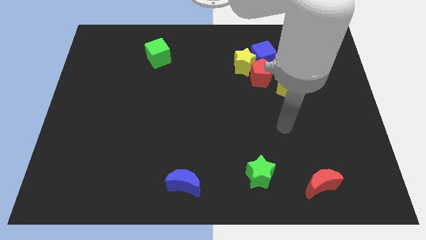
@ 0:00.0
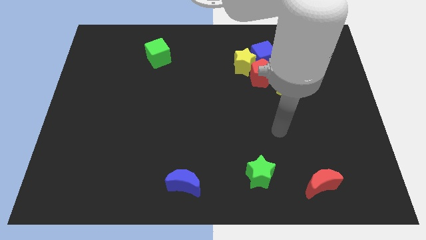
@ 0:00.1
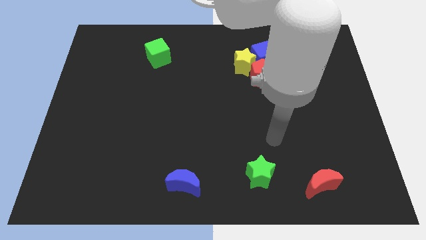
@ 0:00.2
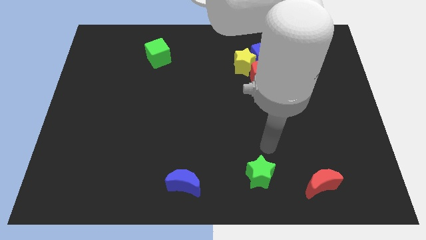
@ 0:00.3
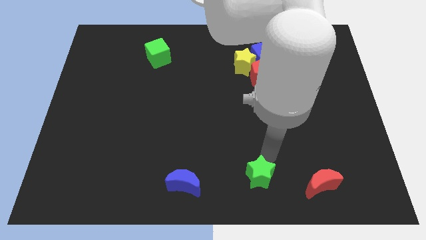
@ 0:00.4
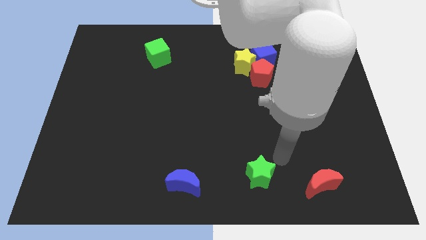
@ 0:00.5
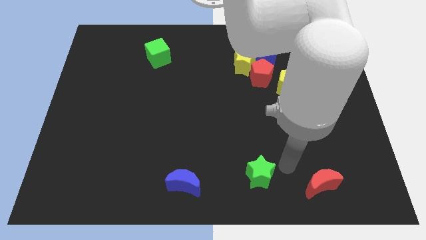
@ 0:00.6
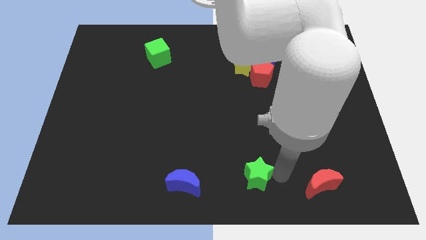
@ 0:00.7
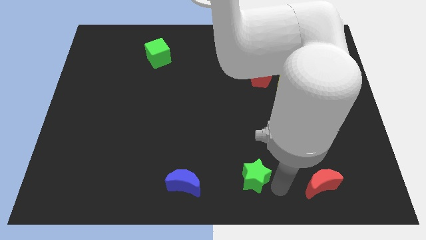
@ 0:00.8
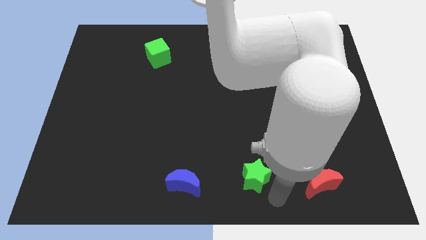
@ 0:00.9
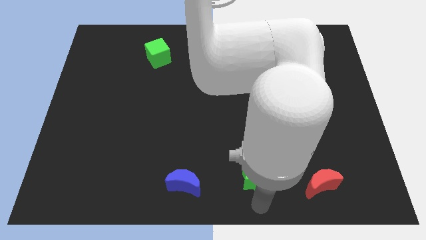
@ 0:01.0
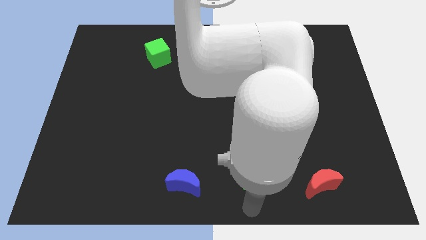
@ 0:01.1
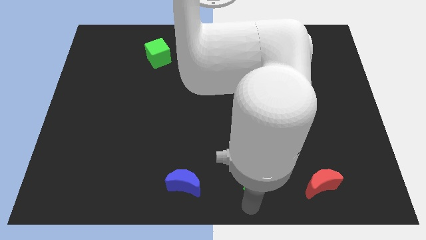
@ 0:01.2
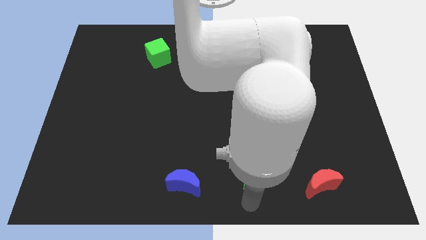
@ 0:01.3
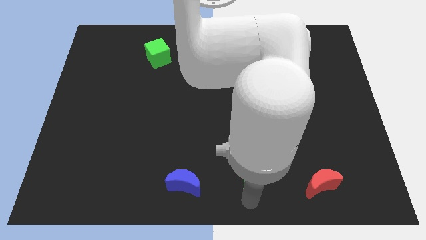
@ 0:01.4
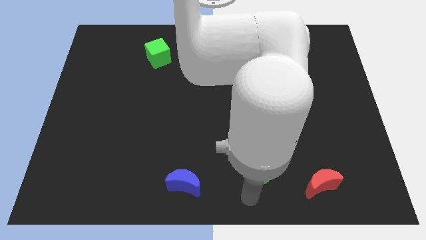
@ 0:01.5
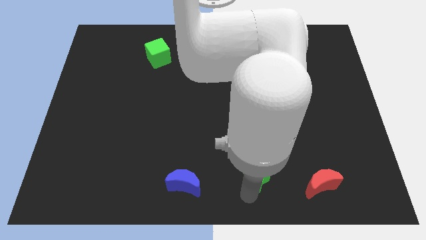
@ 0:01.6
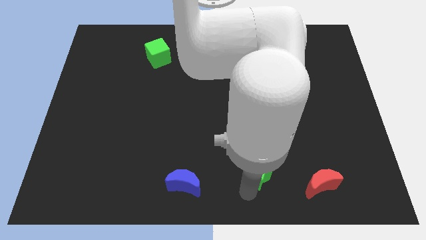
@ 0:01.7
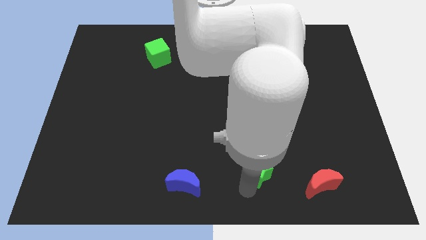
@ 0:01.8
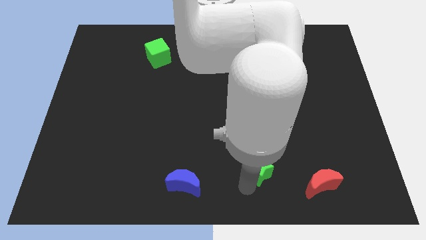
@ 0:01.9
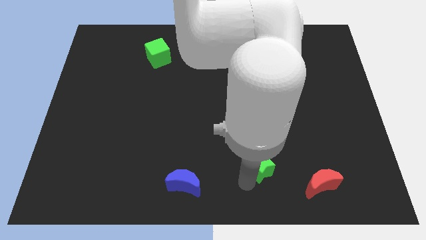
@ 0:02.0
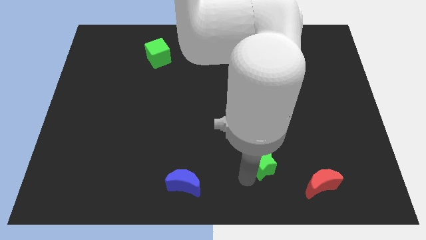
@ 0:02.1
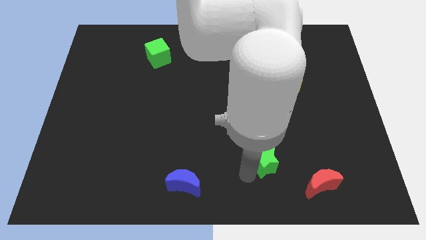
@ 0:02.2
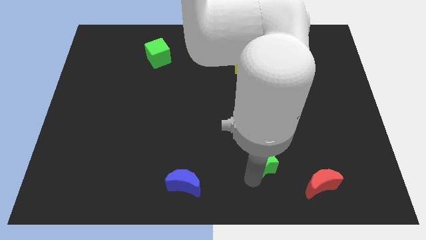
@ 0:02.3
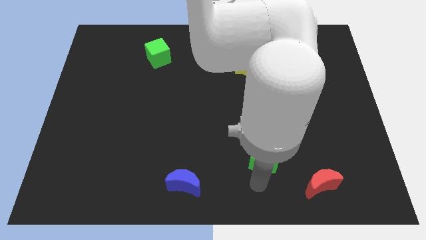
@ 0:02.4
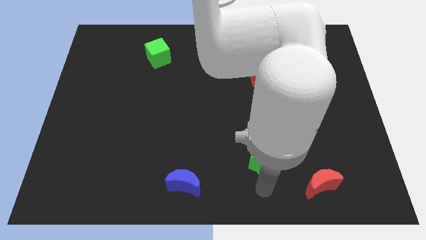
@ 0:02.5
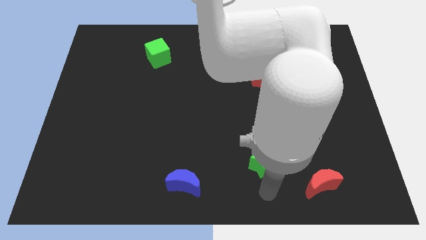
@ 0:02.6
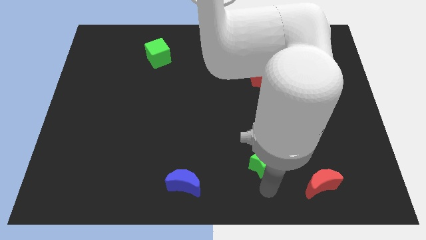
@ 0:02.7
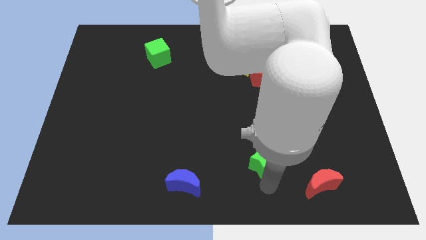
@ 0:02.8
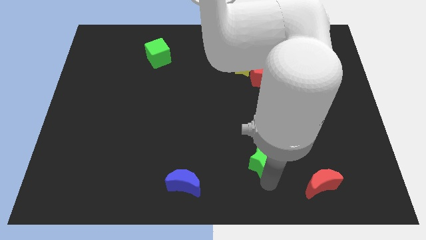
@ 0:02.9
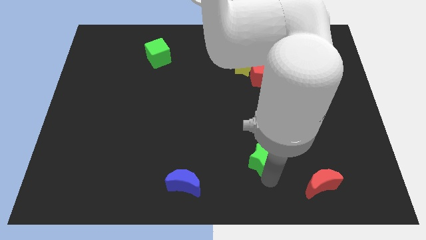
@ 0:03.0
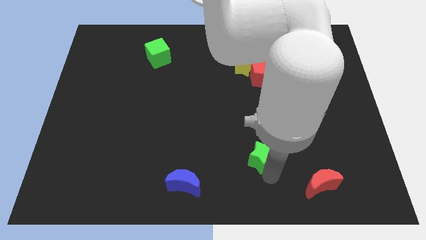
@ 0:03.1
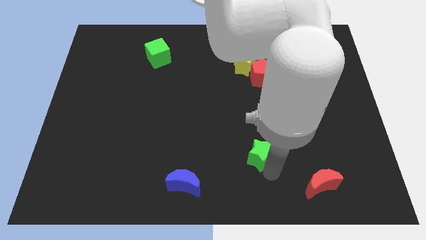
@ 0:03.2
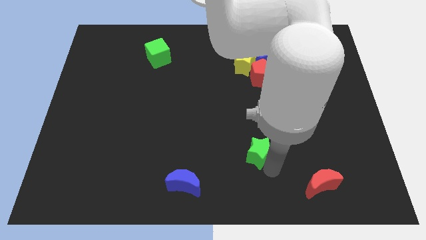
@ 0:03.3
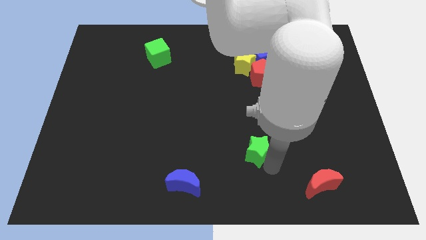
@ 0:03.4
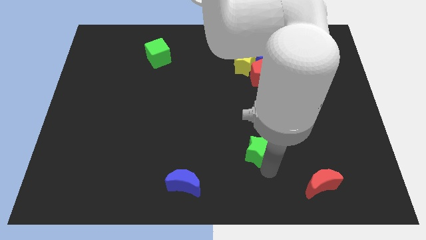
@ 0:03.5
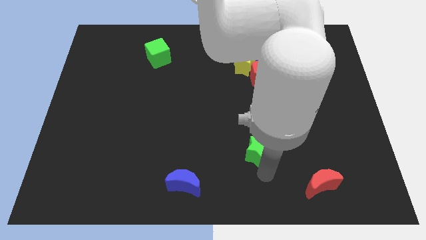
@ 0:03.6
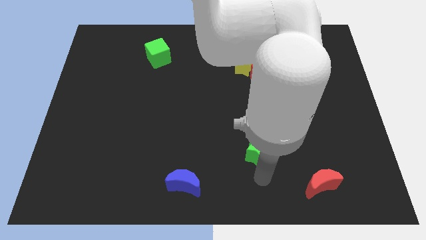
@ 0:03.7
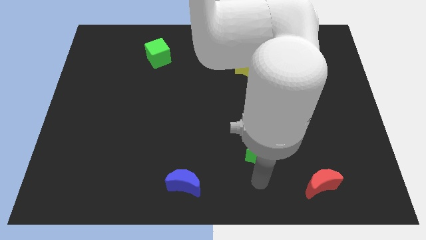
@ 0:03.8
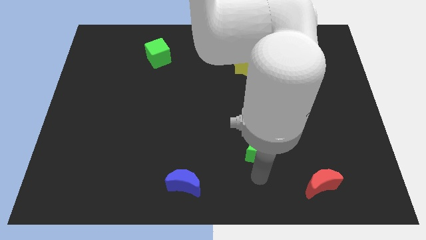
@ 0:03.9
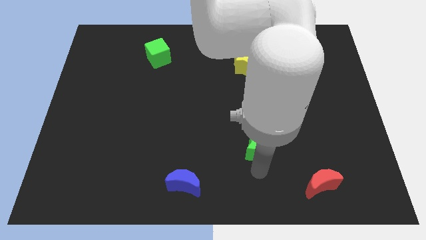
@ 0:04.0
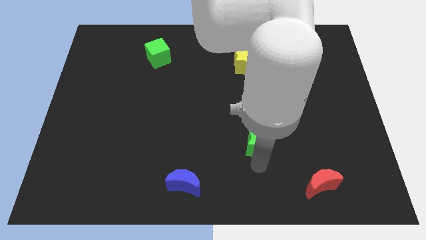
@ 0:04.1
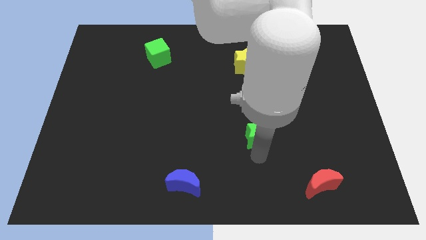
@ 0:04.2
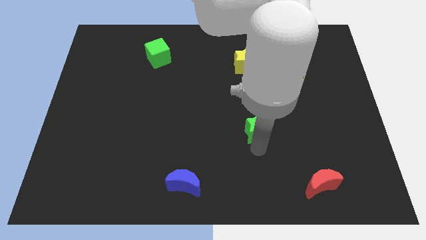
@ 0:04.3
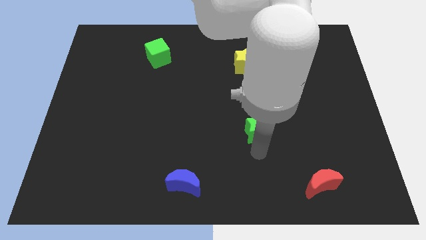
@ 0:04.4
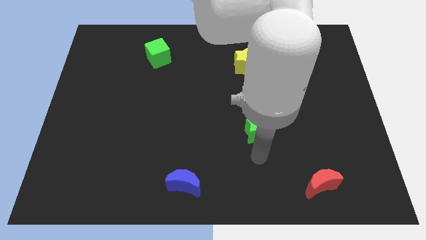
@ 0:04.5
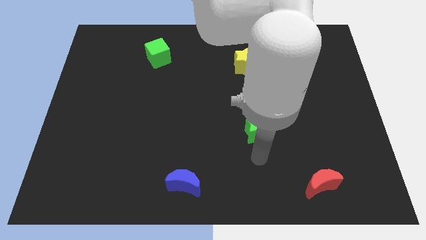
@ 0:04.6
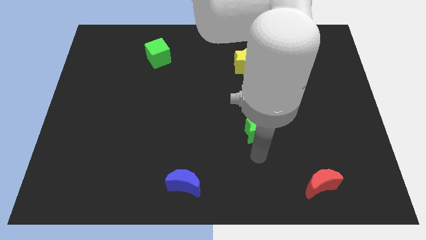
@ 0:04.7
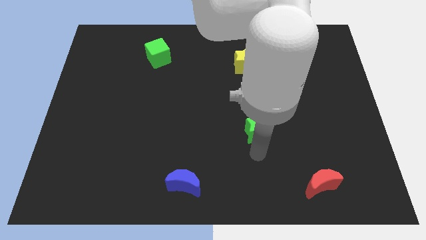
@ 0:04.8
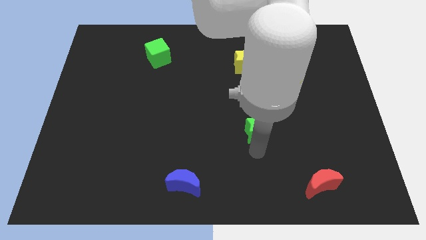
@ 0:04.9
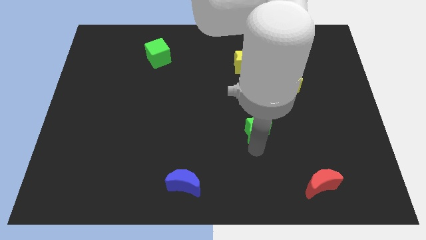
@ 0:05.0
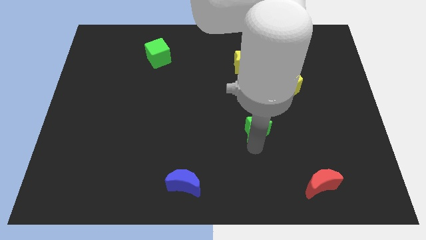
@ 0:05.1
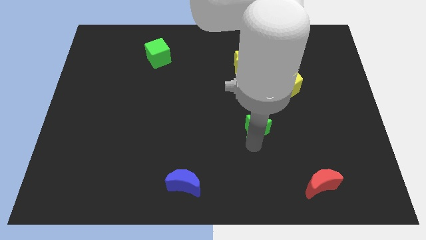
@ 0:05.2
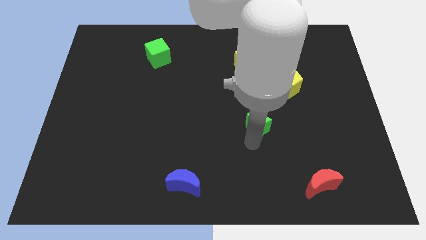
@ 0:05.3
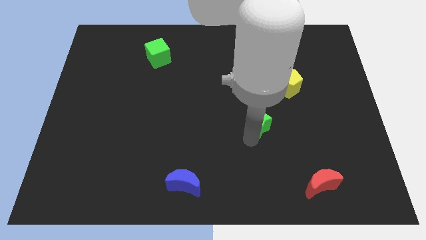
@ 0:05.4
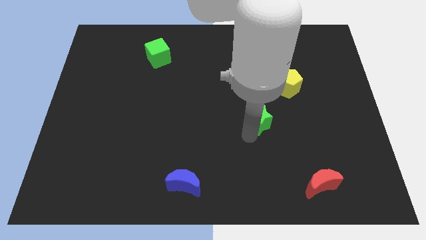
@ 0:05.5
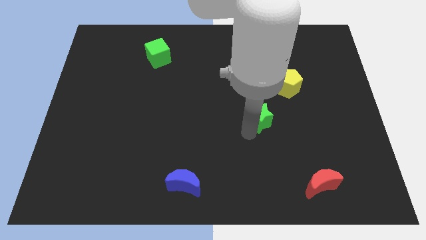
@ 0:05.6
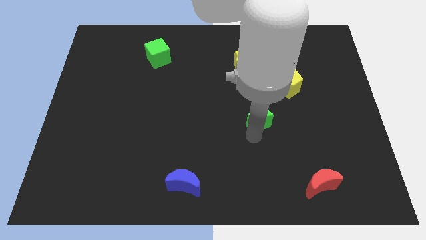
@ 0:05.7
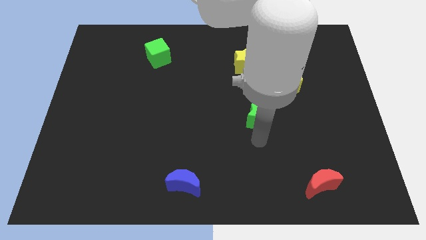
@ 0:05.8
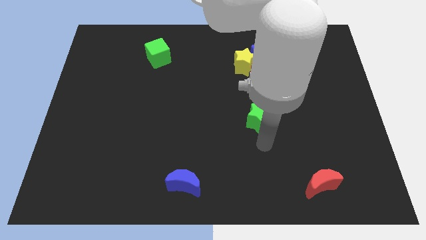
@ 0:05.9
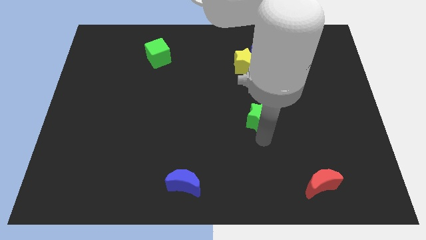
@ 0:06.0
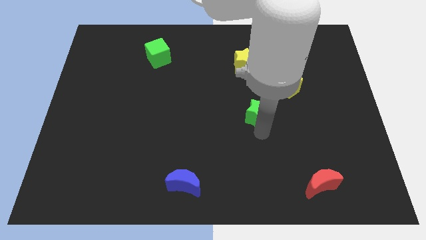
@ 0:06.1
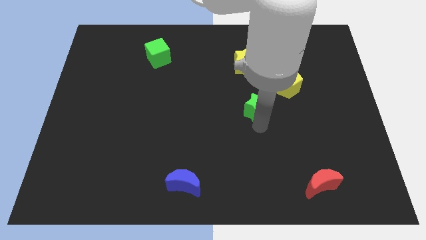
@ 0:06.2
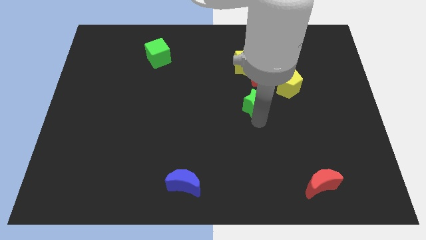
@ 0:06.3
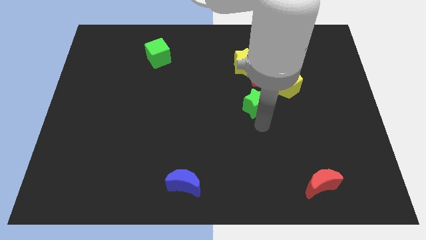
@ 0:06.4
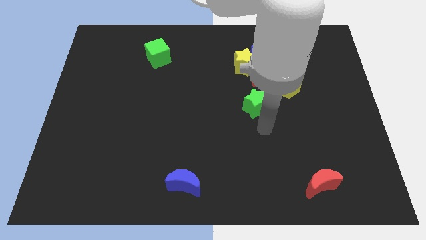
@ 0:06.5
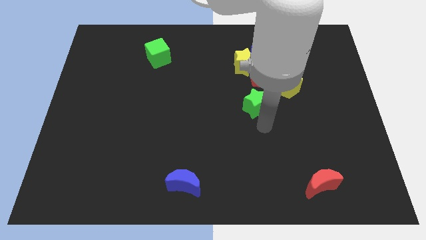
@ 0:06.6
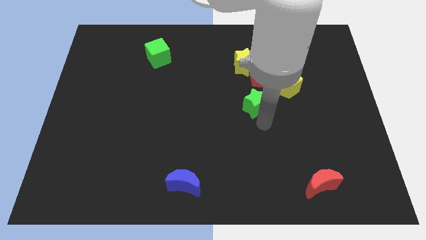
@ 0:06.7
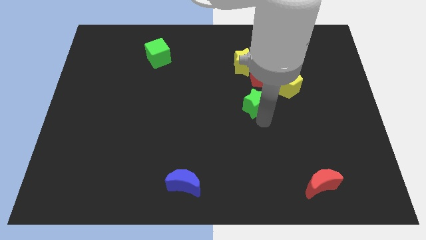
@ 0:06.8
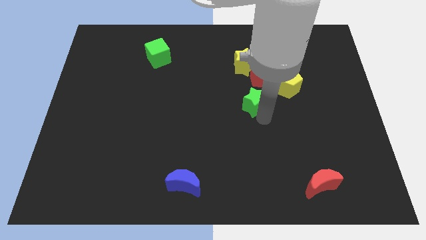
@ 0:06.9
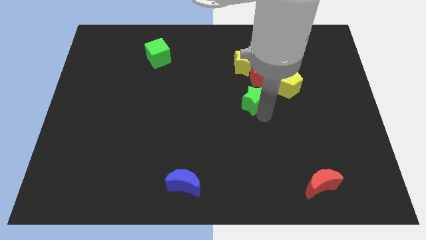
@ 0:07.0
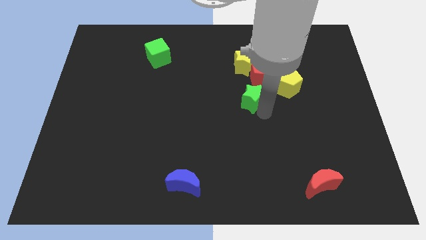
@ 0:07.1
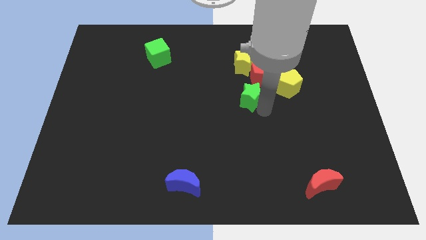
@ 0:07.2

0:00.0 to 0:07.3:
push the green star to the left side of the yellow pentagon

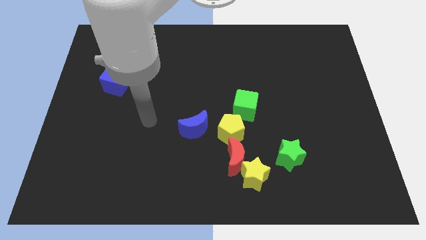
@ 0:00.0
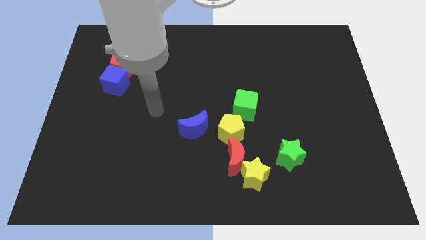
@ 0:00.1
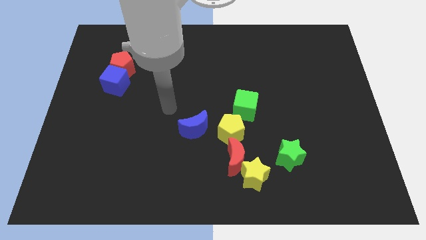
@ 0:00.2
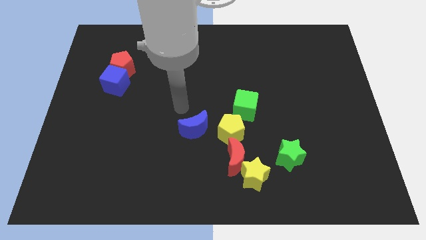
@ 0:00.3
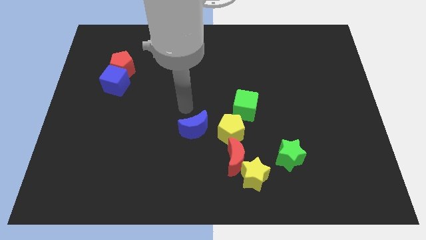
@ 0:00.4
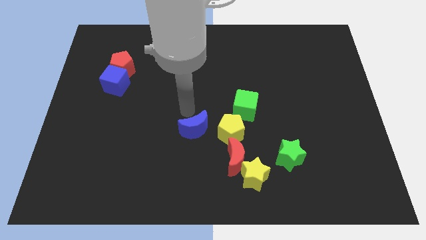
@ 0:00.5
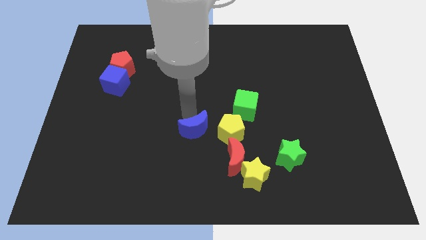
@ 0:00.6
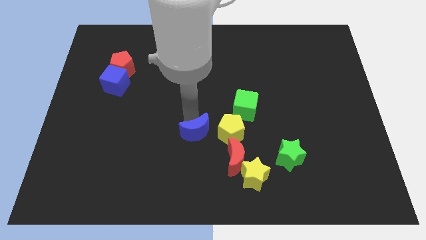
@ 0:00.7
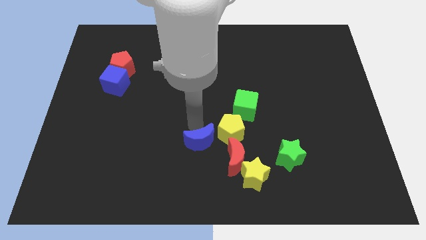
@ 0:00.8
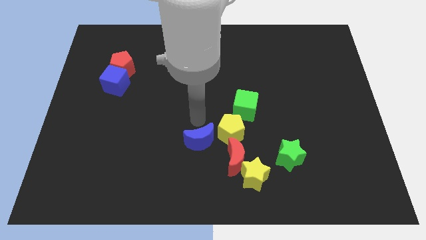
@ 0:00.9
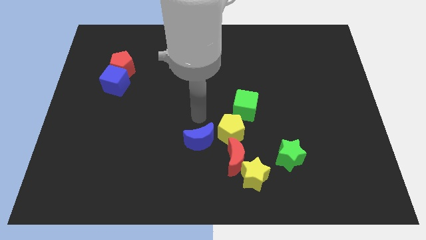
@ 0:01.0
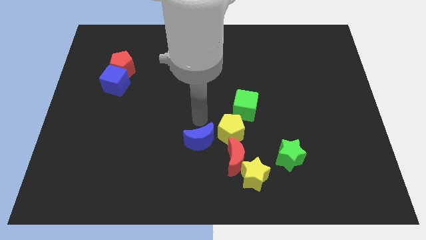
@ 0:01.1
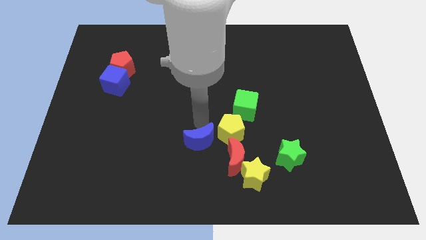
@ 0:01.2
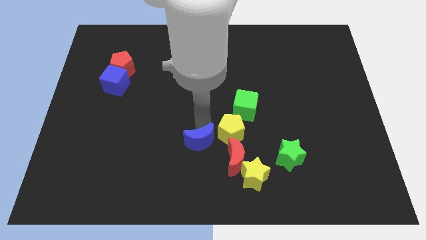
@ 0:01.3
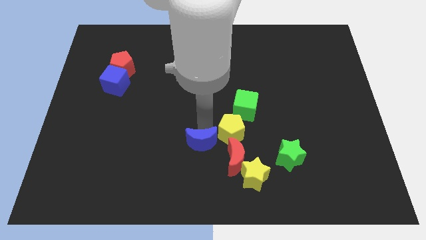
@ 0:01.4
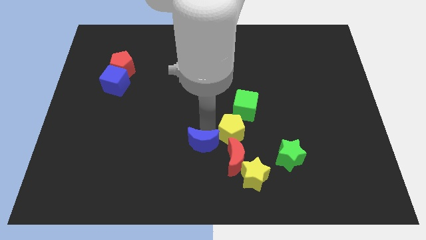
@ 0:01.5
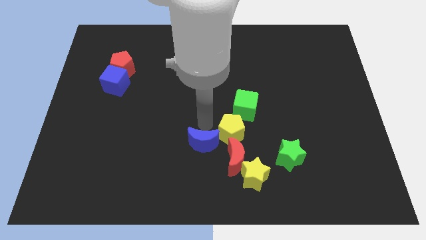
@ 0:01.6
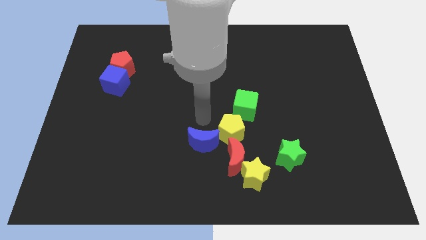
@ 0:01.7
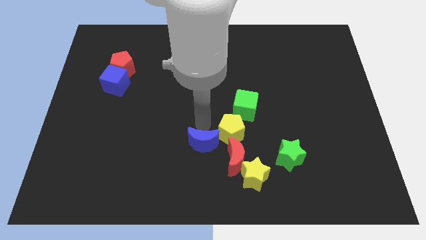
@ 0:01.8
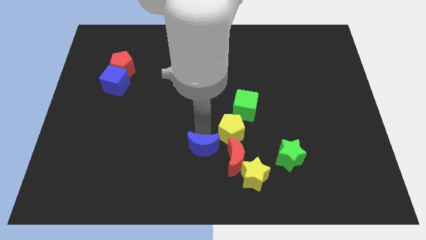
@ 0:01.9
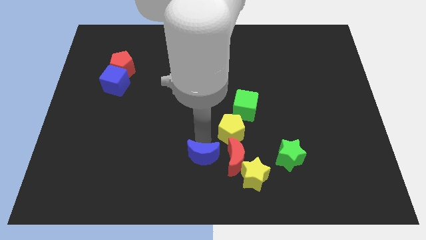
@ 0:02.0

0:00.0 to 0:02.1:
put the blue moon left of the yellow star
